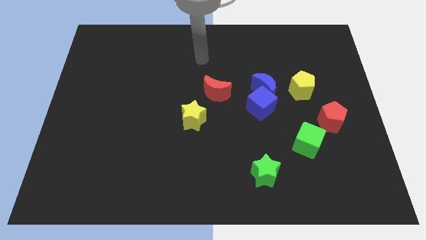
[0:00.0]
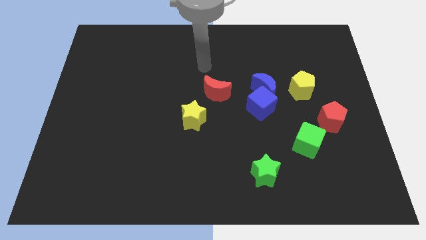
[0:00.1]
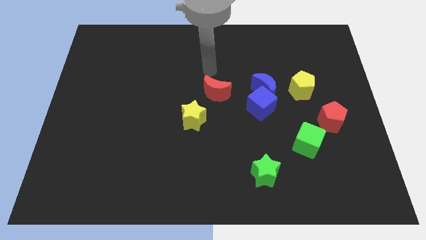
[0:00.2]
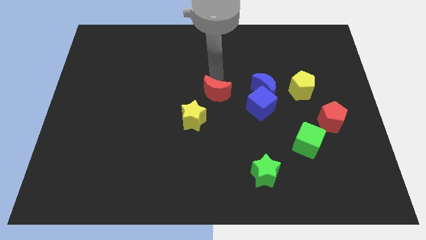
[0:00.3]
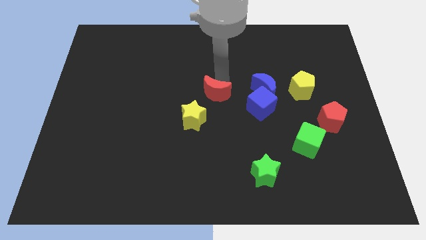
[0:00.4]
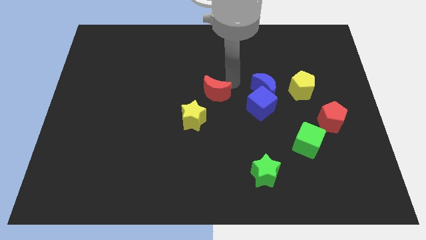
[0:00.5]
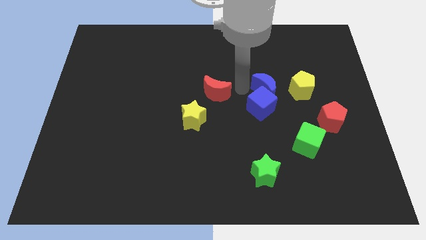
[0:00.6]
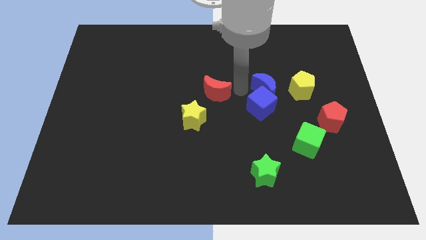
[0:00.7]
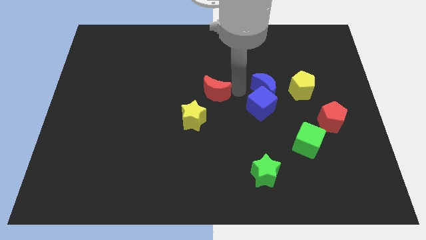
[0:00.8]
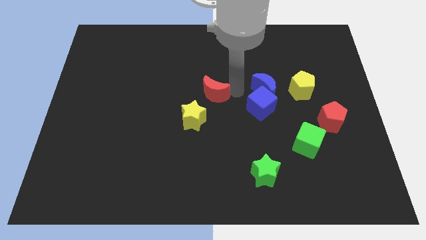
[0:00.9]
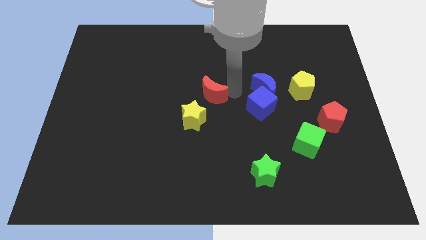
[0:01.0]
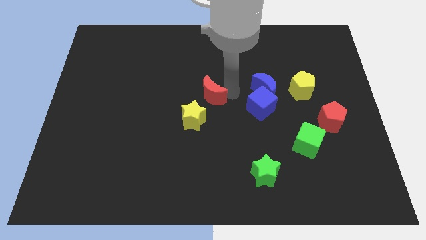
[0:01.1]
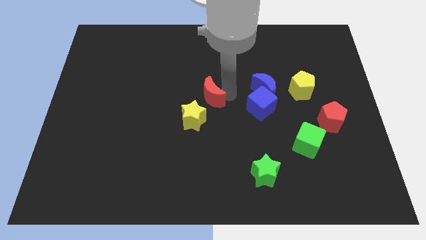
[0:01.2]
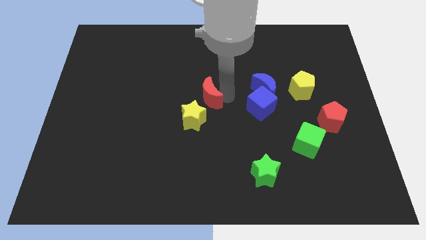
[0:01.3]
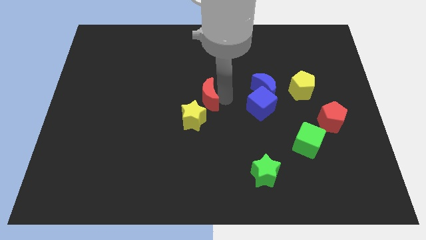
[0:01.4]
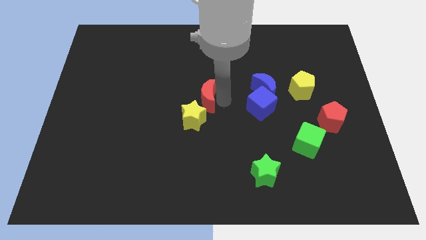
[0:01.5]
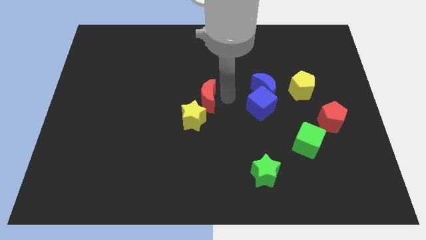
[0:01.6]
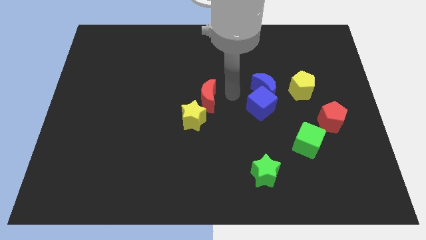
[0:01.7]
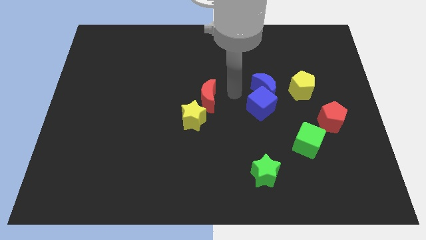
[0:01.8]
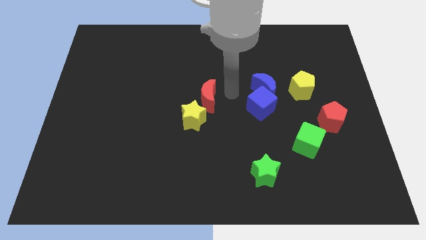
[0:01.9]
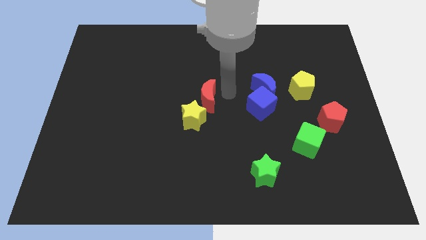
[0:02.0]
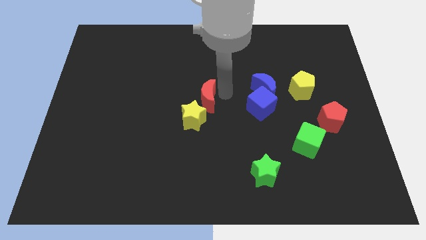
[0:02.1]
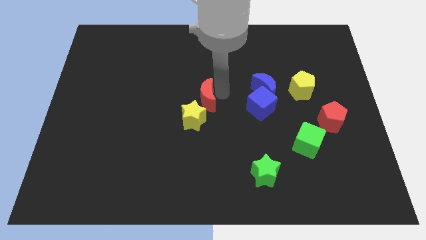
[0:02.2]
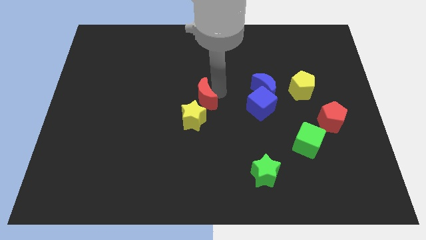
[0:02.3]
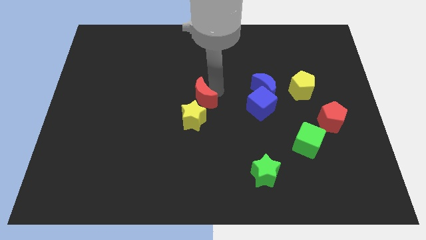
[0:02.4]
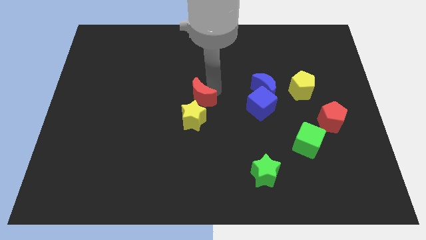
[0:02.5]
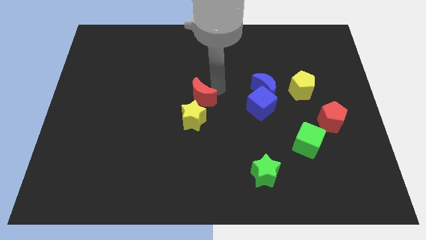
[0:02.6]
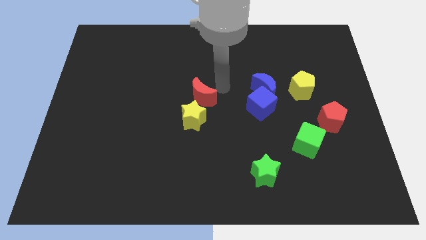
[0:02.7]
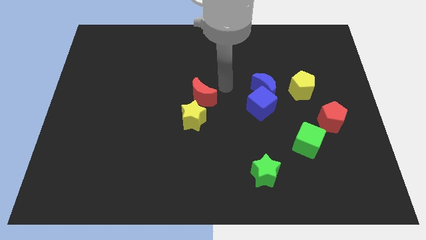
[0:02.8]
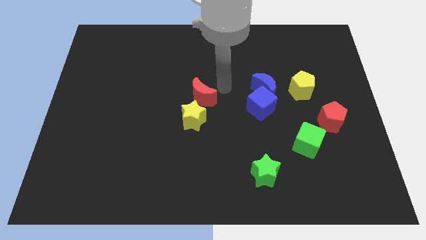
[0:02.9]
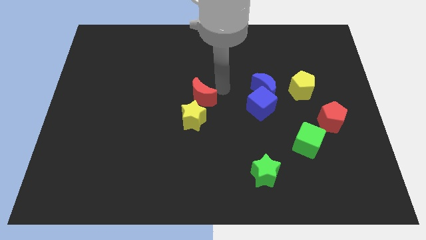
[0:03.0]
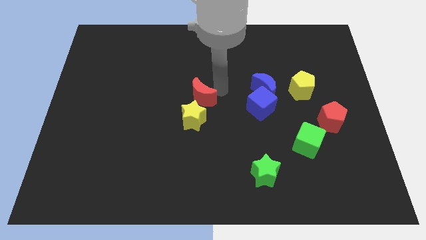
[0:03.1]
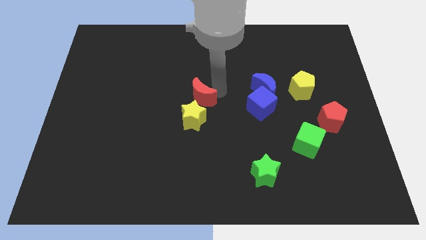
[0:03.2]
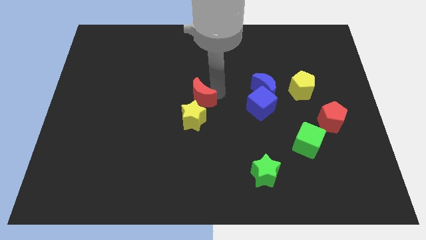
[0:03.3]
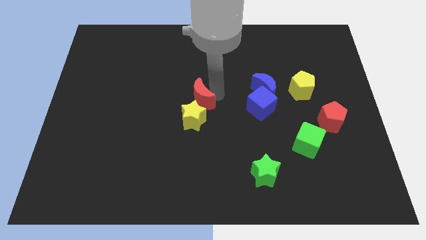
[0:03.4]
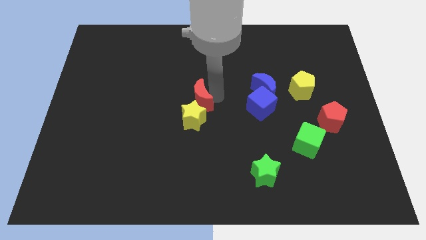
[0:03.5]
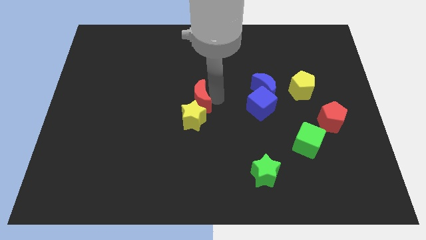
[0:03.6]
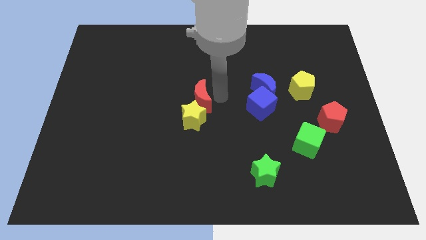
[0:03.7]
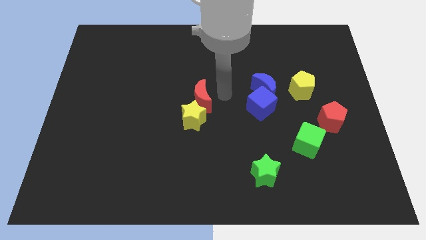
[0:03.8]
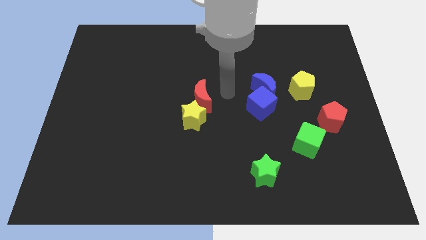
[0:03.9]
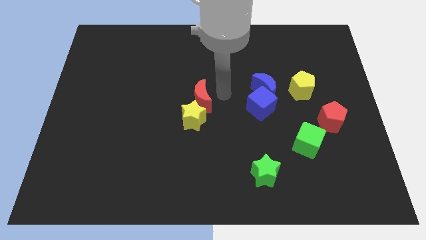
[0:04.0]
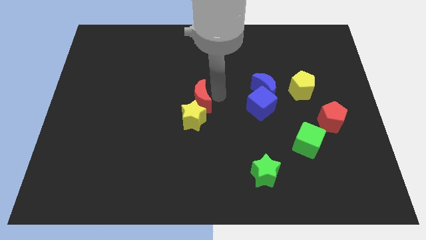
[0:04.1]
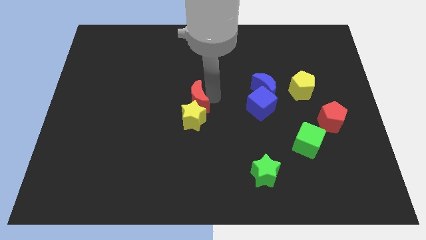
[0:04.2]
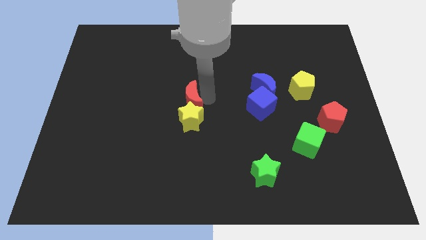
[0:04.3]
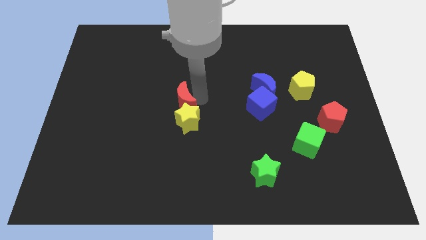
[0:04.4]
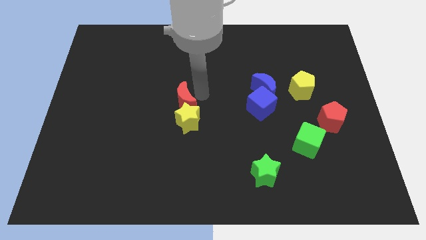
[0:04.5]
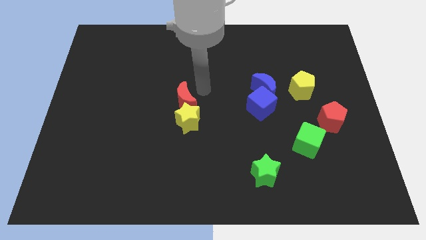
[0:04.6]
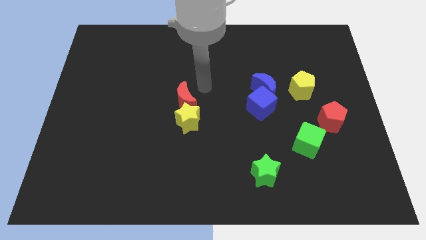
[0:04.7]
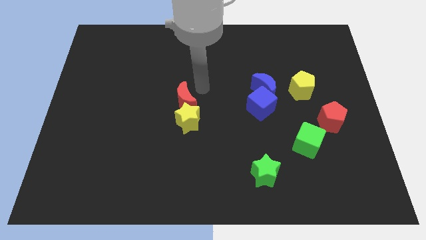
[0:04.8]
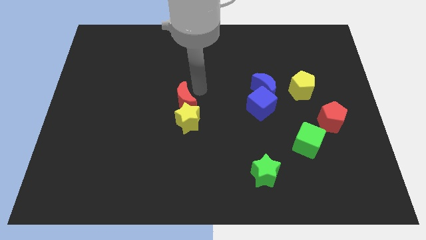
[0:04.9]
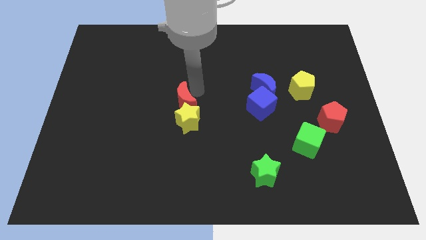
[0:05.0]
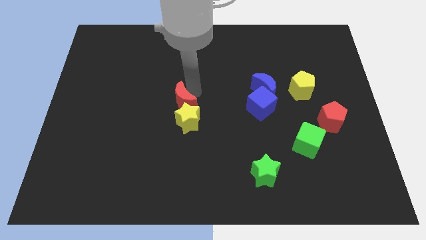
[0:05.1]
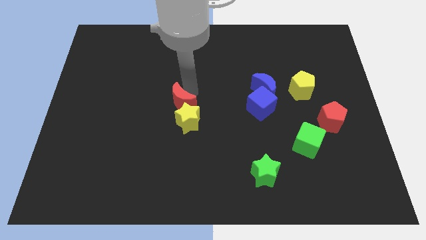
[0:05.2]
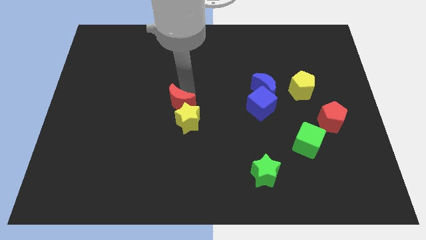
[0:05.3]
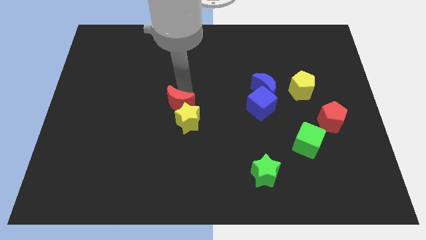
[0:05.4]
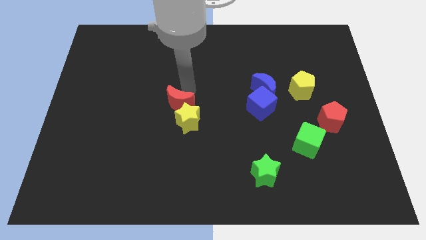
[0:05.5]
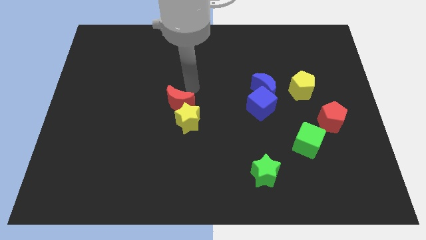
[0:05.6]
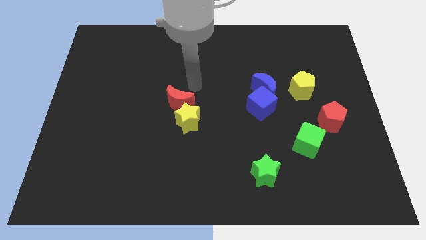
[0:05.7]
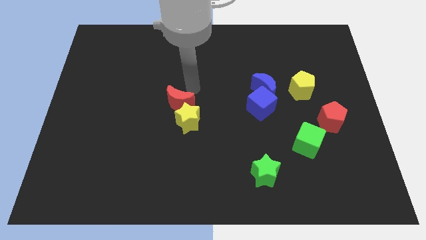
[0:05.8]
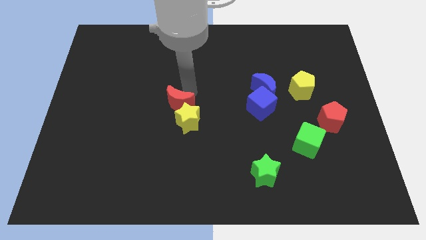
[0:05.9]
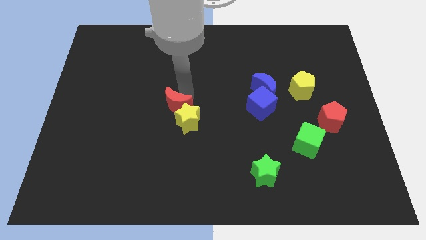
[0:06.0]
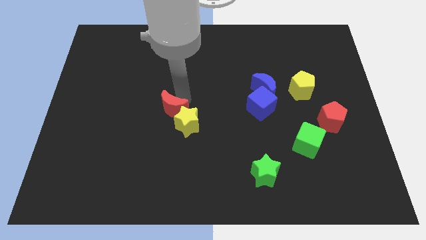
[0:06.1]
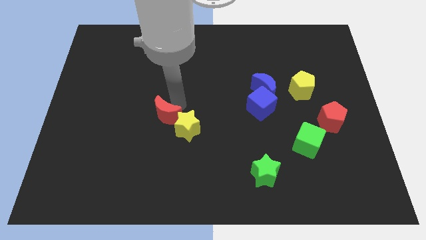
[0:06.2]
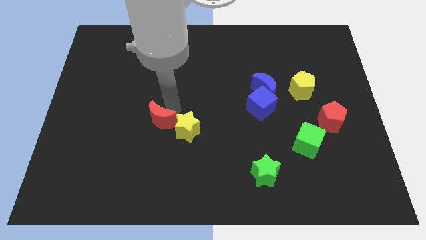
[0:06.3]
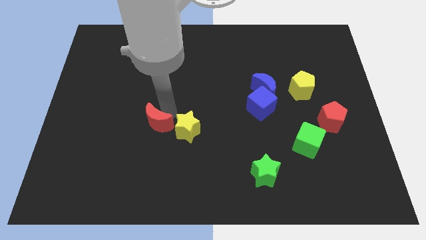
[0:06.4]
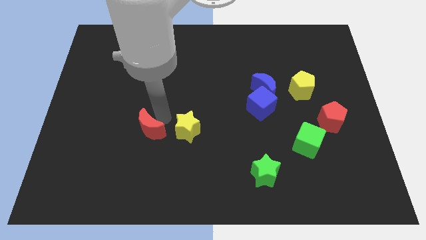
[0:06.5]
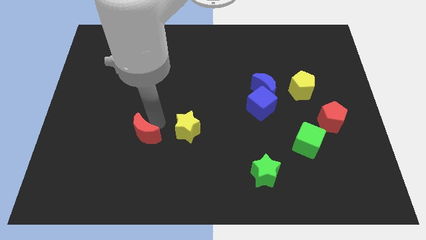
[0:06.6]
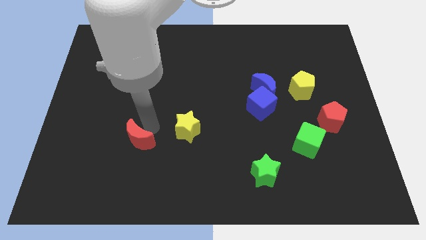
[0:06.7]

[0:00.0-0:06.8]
push the red moon downwards and to the left

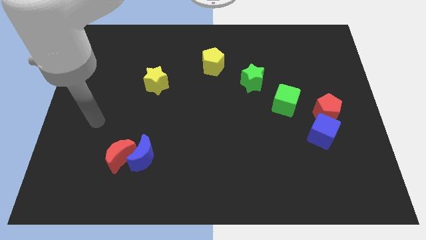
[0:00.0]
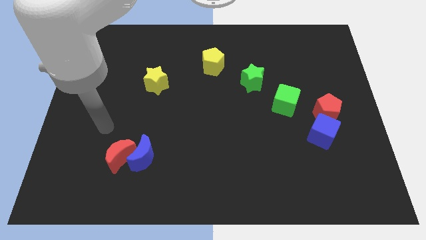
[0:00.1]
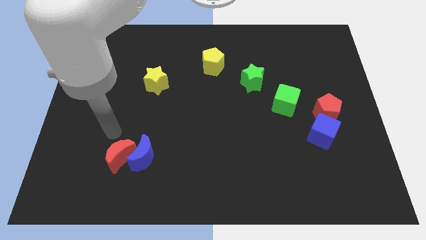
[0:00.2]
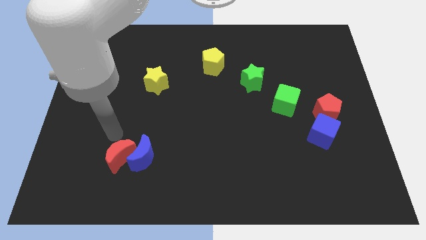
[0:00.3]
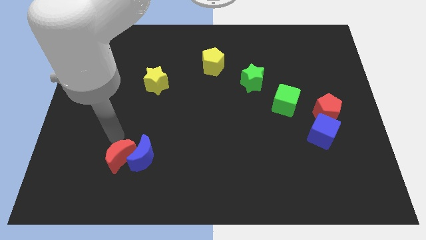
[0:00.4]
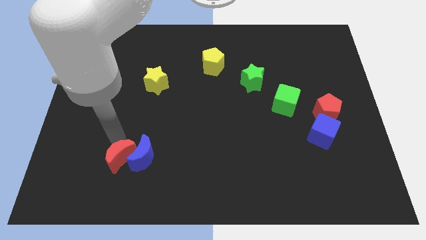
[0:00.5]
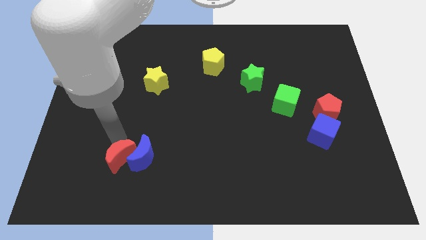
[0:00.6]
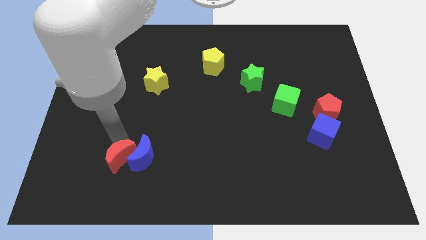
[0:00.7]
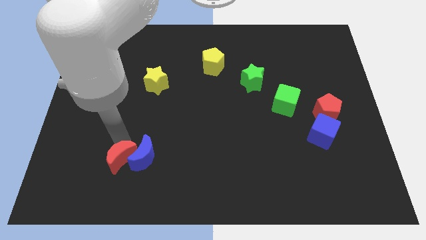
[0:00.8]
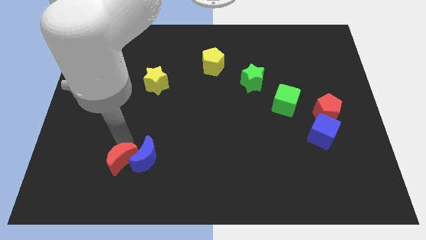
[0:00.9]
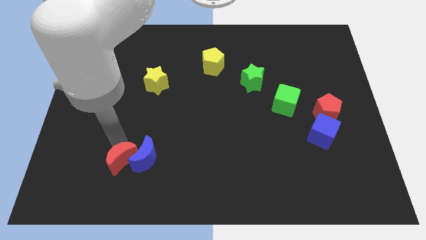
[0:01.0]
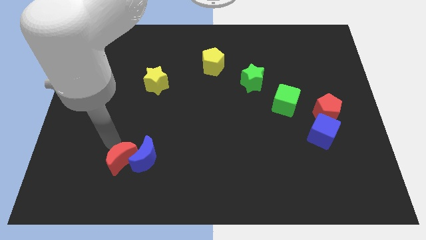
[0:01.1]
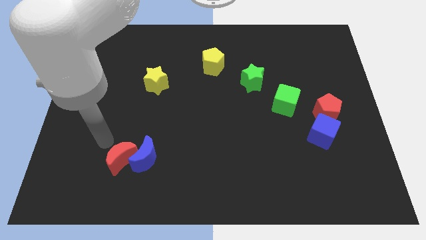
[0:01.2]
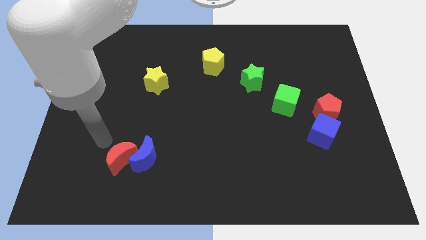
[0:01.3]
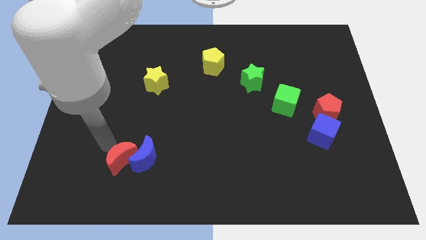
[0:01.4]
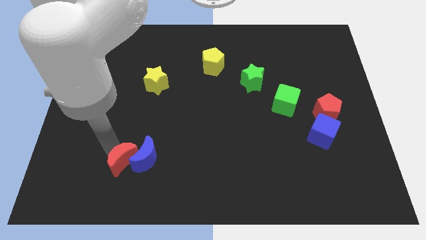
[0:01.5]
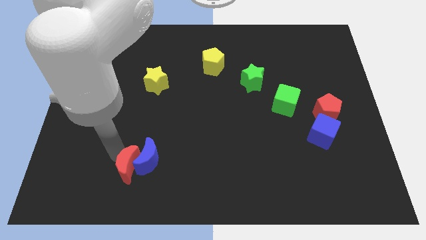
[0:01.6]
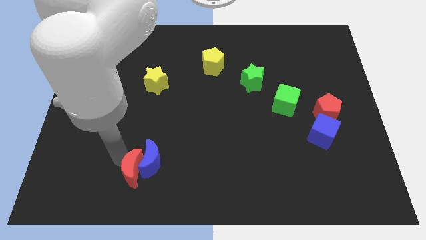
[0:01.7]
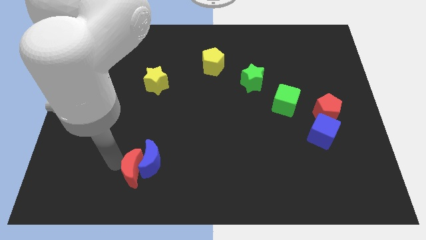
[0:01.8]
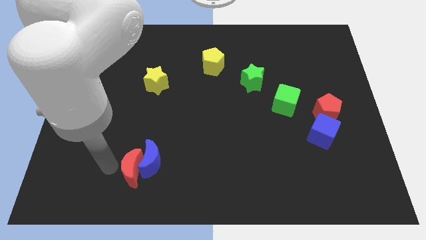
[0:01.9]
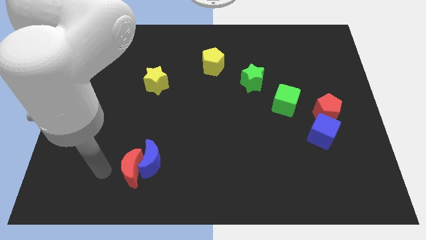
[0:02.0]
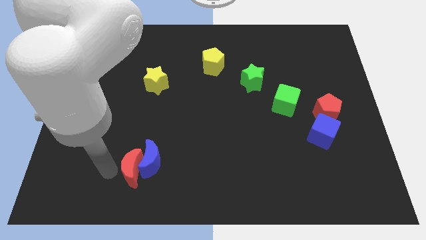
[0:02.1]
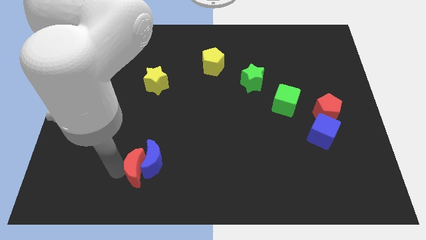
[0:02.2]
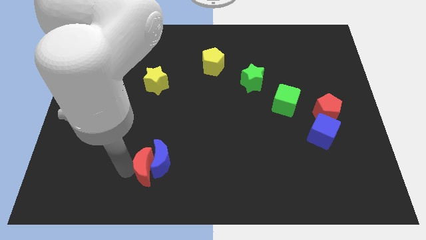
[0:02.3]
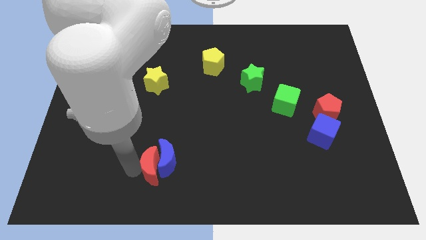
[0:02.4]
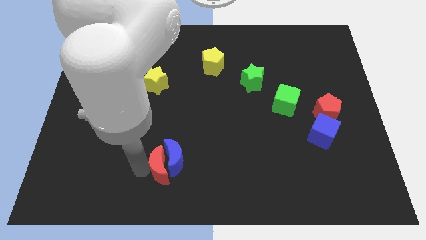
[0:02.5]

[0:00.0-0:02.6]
slightly move the red moon to the right
